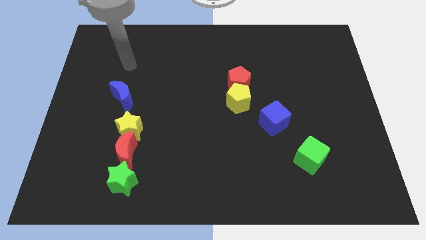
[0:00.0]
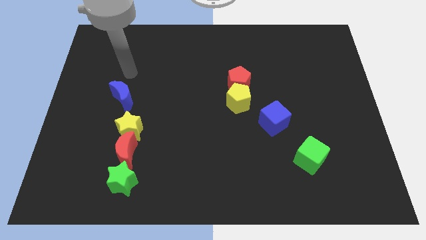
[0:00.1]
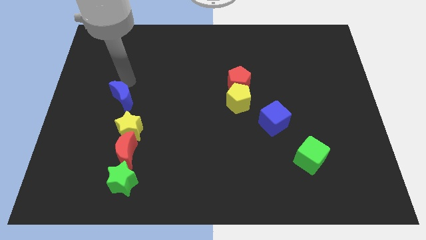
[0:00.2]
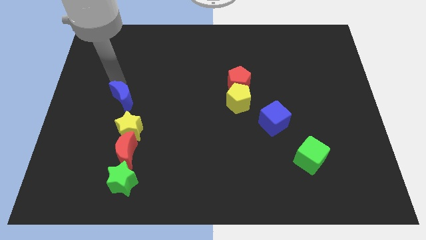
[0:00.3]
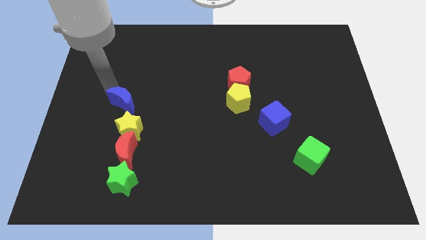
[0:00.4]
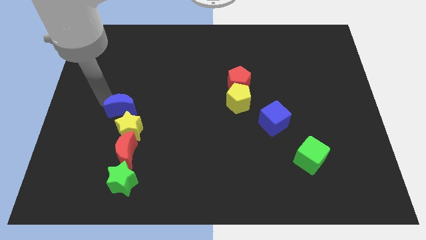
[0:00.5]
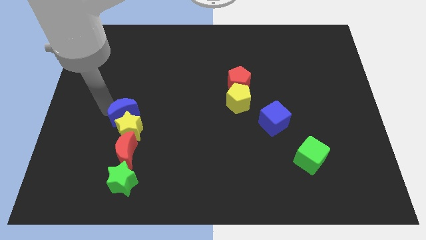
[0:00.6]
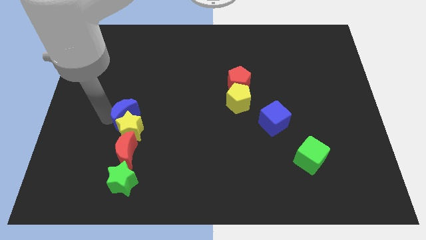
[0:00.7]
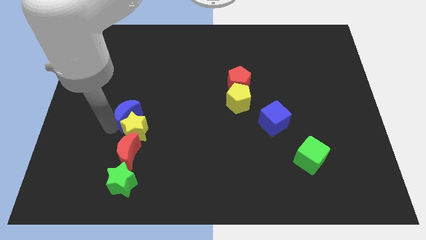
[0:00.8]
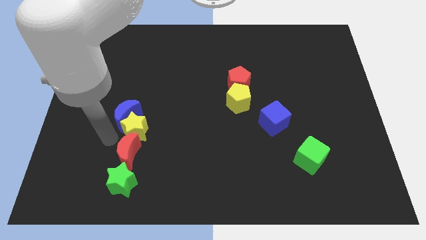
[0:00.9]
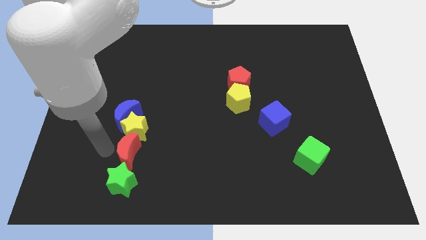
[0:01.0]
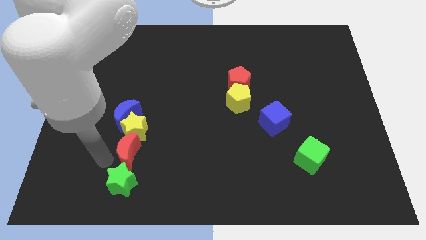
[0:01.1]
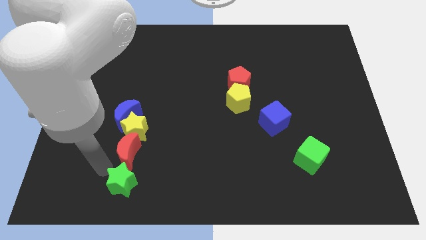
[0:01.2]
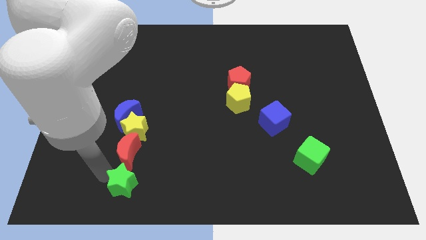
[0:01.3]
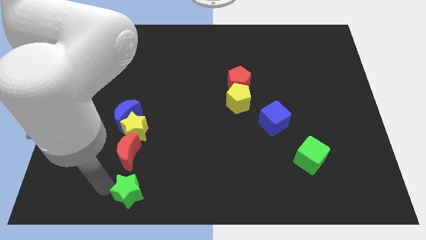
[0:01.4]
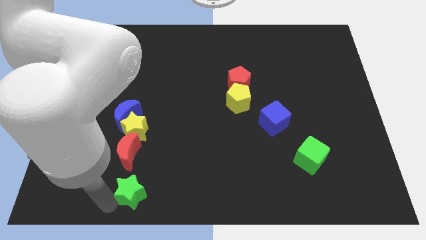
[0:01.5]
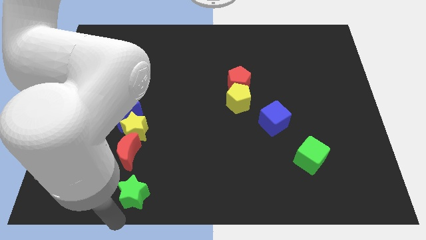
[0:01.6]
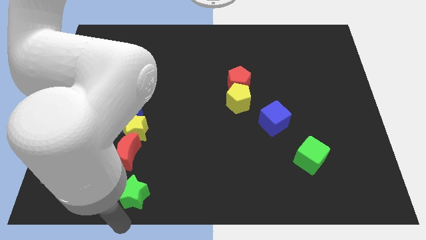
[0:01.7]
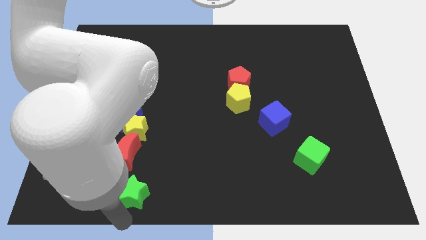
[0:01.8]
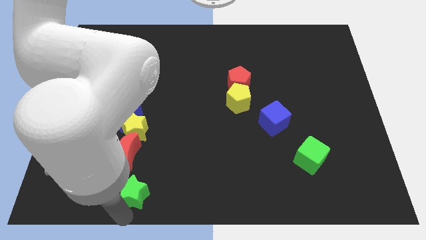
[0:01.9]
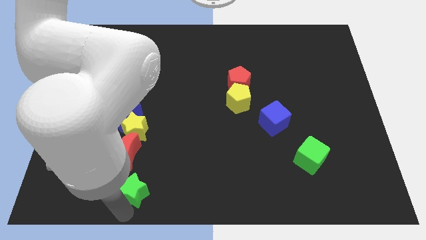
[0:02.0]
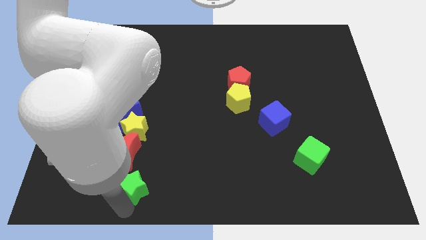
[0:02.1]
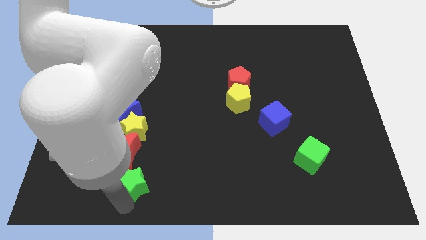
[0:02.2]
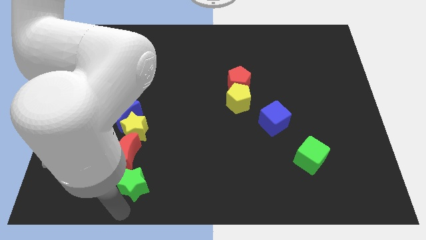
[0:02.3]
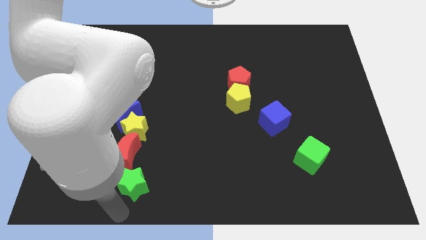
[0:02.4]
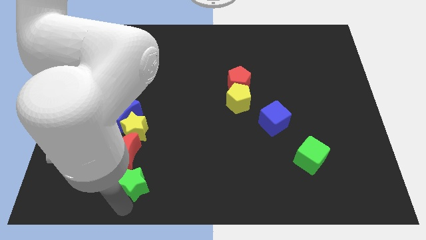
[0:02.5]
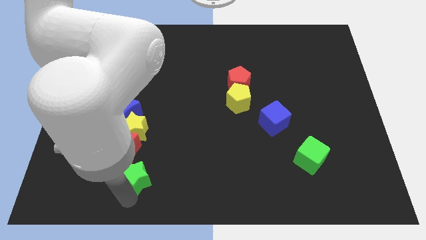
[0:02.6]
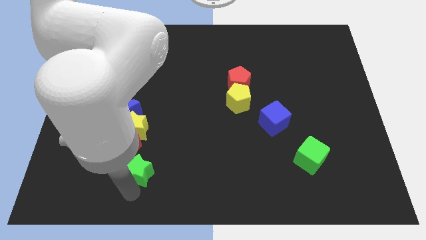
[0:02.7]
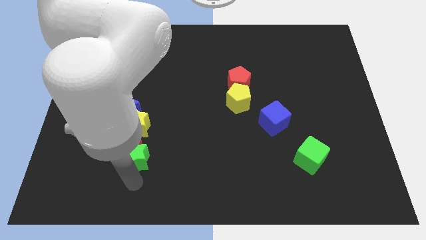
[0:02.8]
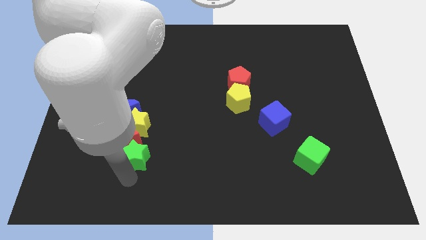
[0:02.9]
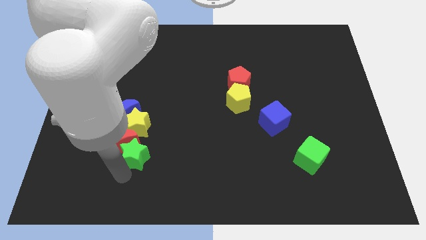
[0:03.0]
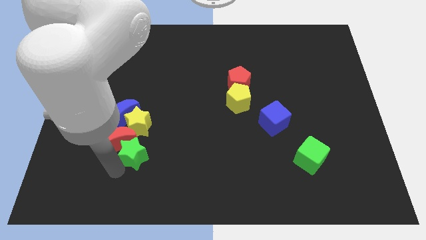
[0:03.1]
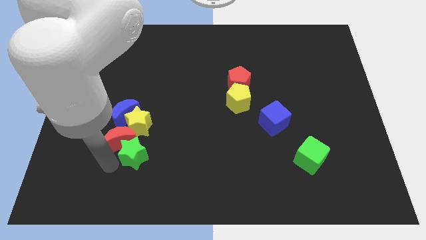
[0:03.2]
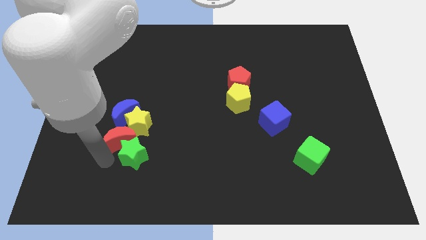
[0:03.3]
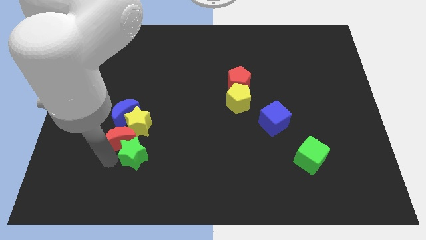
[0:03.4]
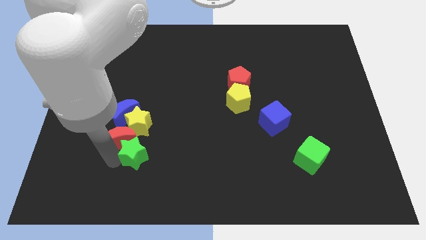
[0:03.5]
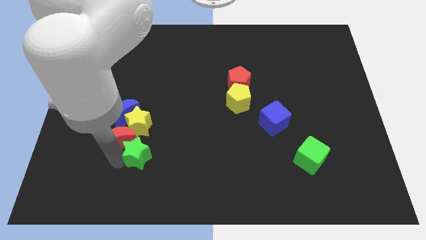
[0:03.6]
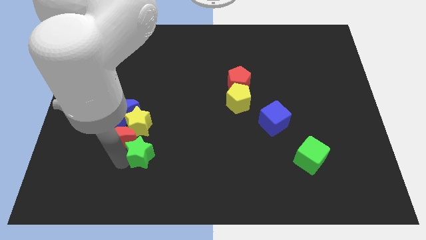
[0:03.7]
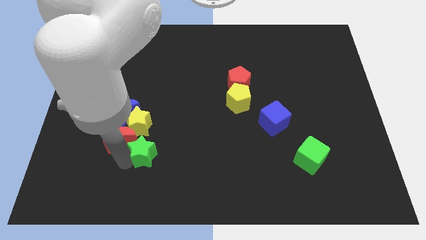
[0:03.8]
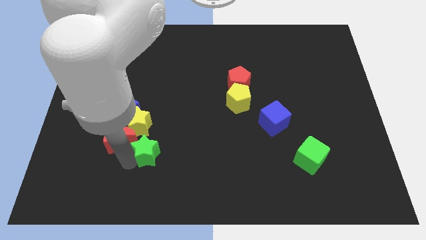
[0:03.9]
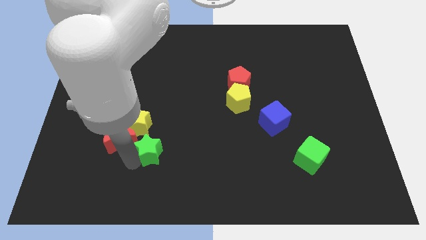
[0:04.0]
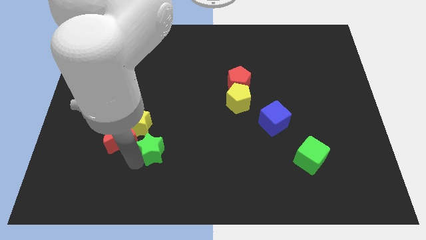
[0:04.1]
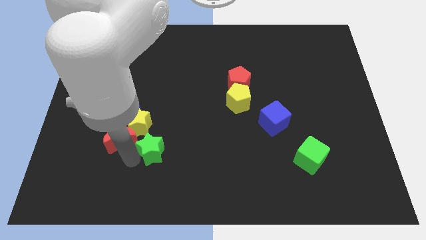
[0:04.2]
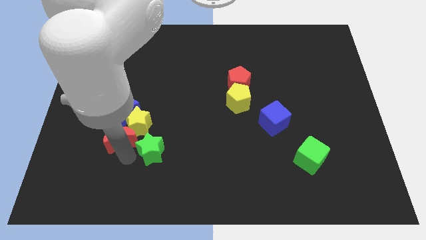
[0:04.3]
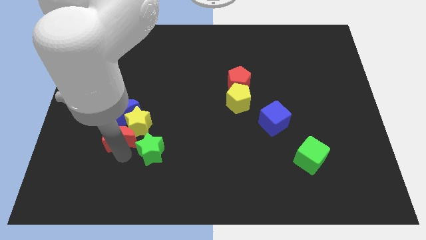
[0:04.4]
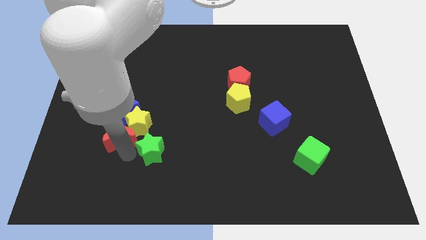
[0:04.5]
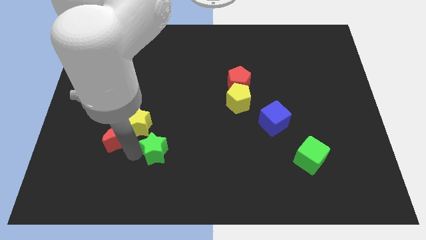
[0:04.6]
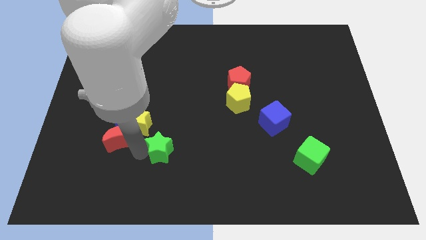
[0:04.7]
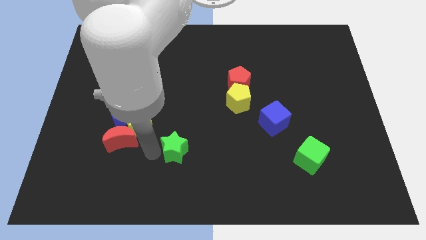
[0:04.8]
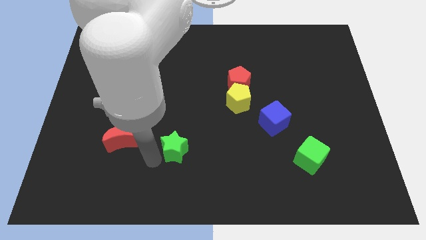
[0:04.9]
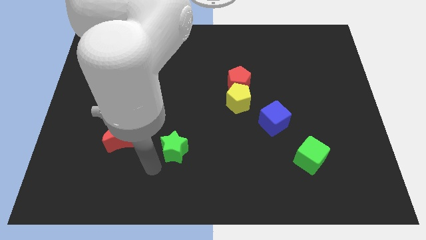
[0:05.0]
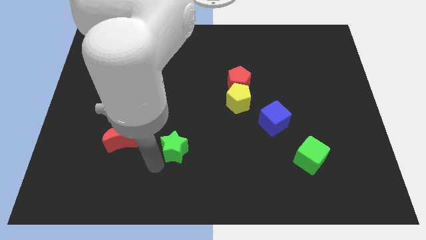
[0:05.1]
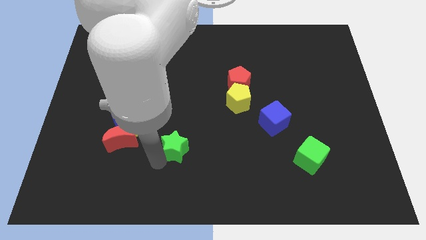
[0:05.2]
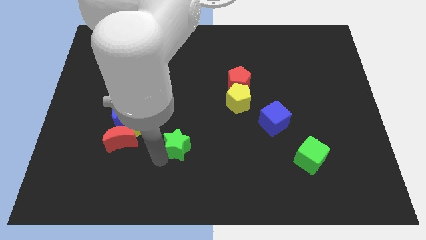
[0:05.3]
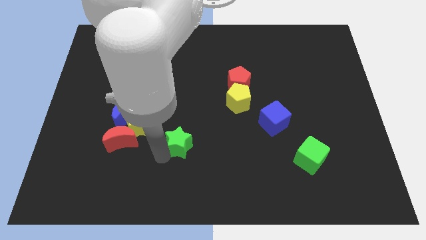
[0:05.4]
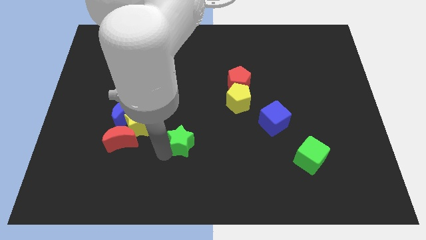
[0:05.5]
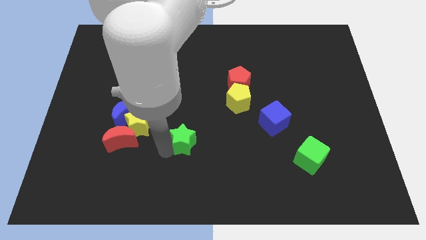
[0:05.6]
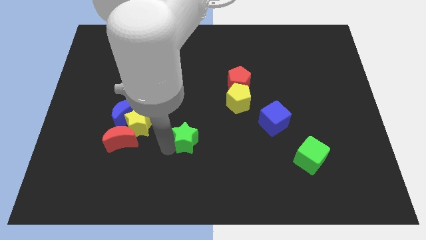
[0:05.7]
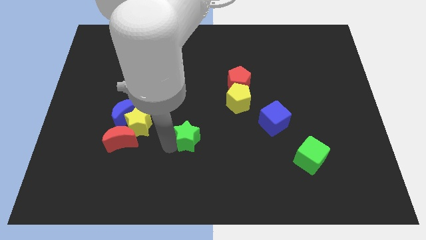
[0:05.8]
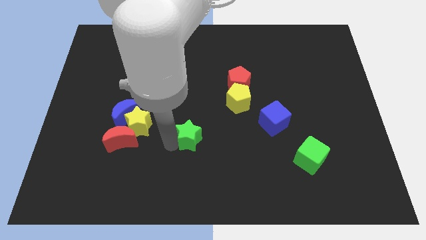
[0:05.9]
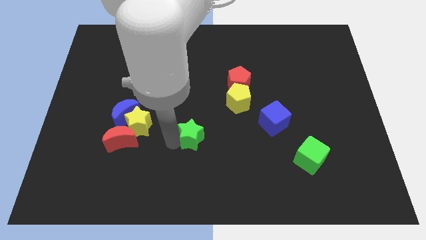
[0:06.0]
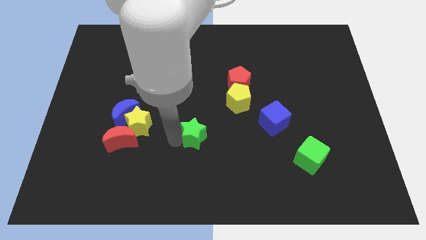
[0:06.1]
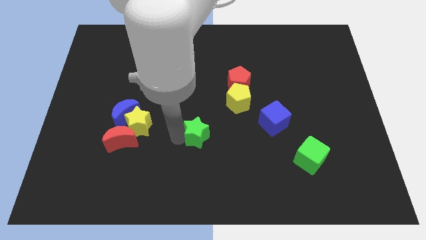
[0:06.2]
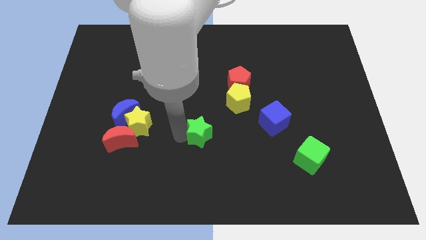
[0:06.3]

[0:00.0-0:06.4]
push the green star diagonally down and to the left of the yellow pentagon

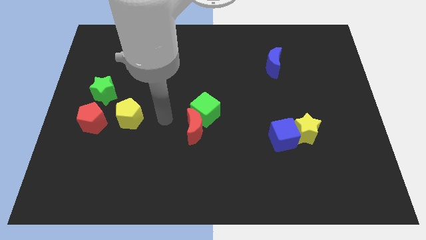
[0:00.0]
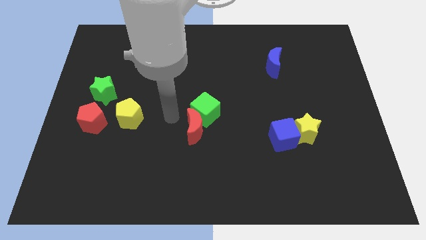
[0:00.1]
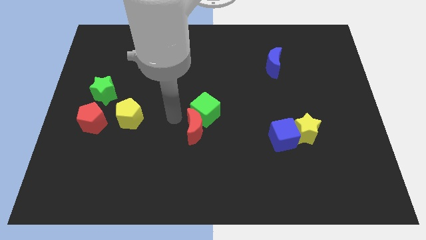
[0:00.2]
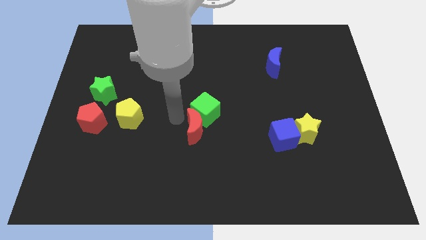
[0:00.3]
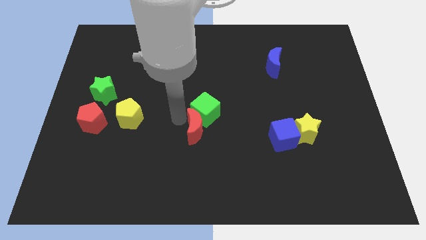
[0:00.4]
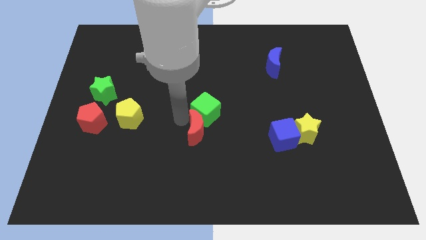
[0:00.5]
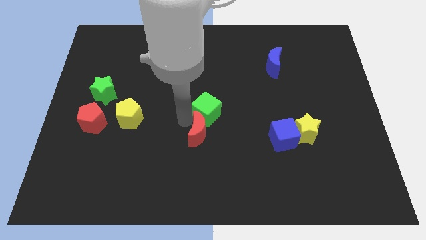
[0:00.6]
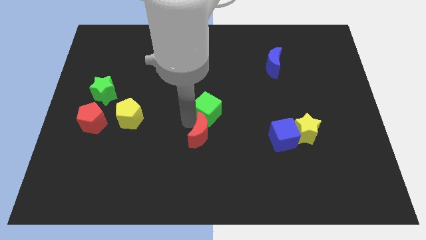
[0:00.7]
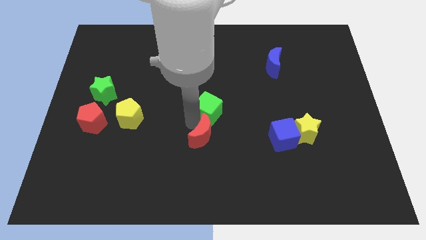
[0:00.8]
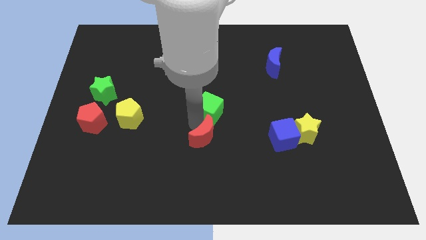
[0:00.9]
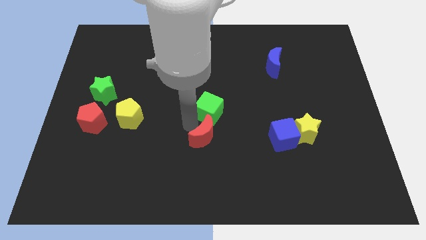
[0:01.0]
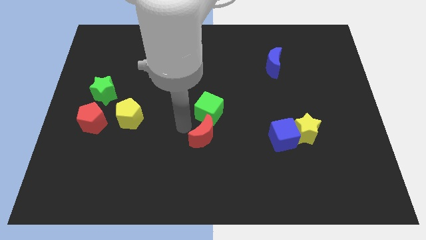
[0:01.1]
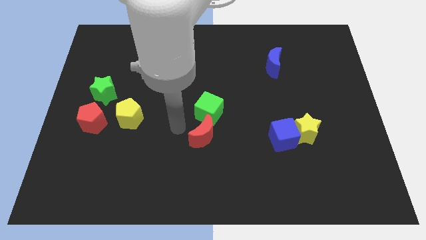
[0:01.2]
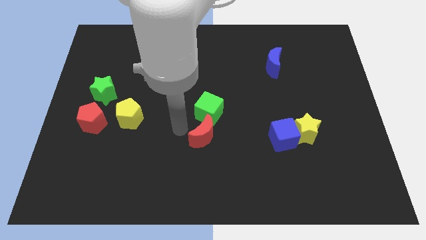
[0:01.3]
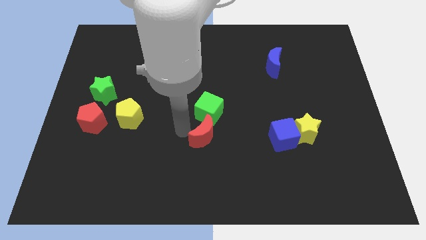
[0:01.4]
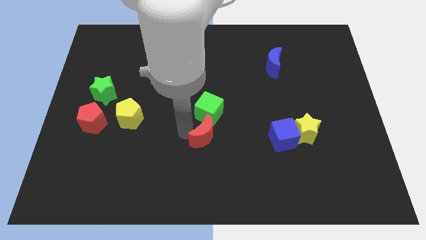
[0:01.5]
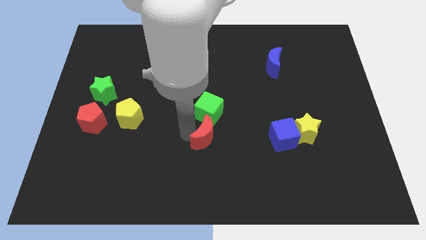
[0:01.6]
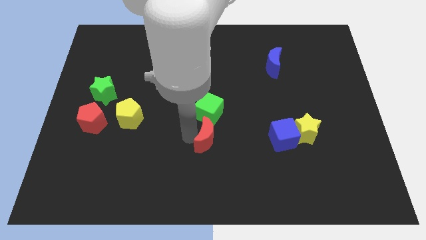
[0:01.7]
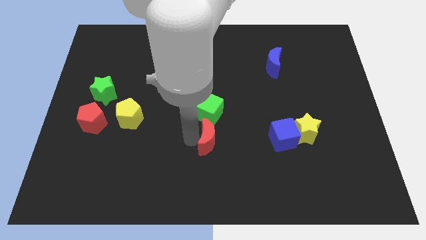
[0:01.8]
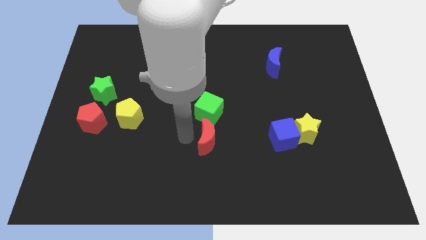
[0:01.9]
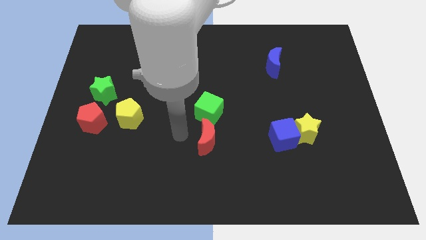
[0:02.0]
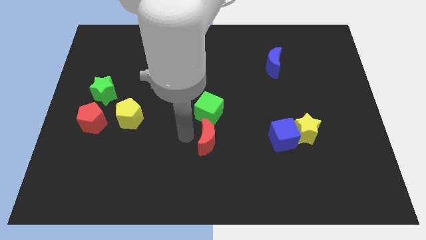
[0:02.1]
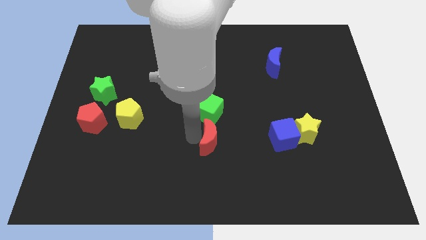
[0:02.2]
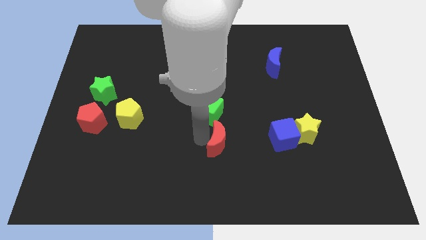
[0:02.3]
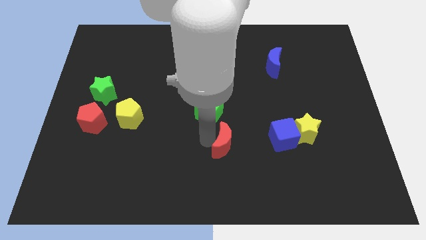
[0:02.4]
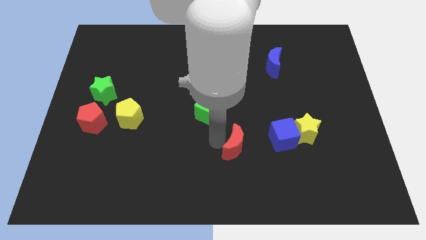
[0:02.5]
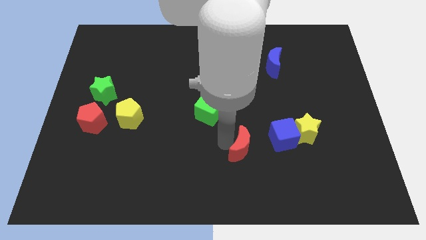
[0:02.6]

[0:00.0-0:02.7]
push the red moon to the bottom left side of the blue cube
